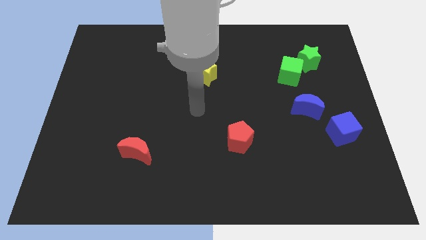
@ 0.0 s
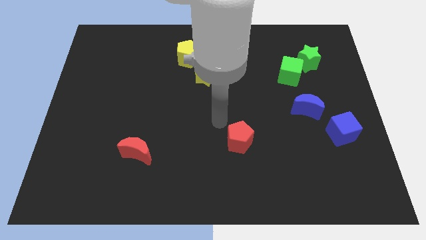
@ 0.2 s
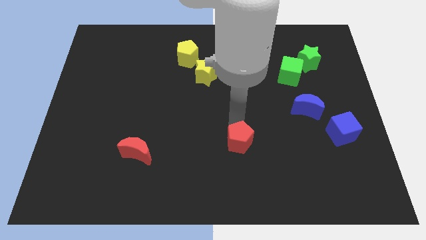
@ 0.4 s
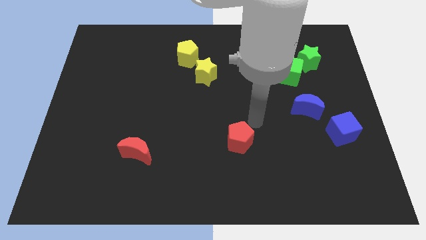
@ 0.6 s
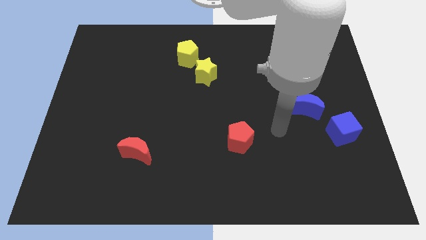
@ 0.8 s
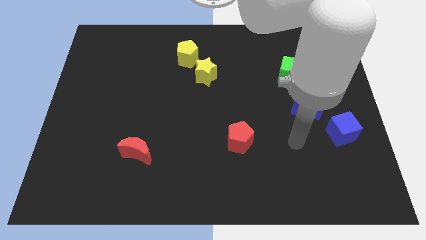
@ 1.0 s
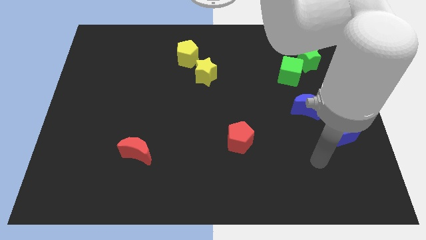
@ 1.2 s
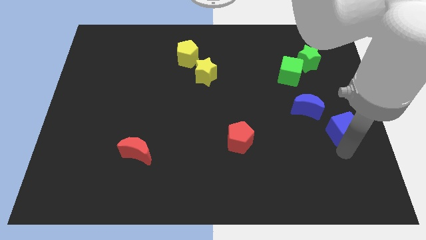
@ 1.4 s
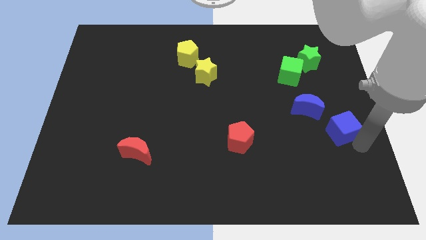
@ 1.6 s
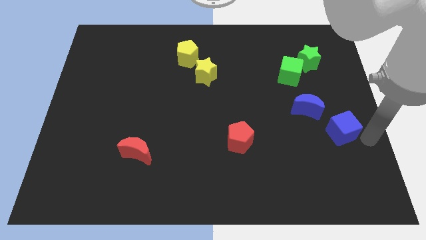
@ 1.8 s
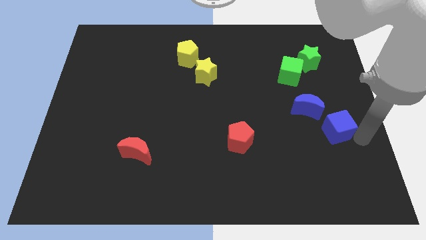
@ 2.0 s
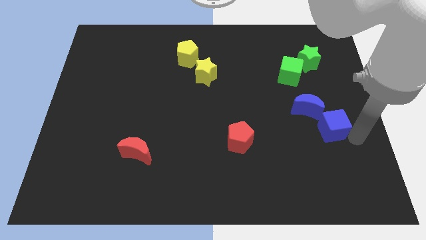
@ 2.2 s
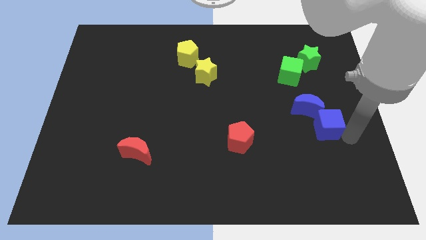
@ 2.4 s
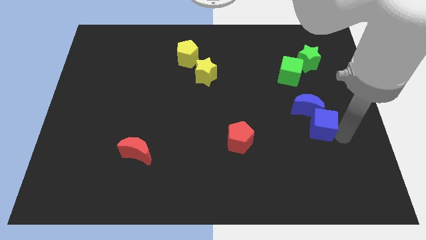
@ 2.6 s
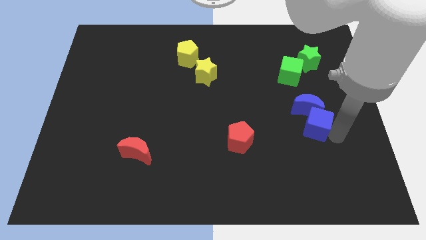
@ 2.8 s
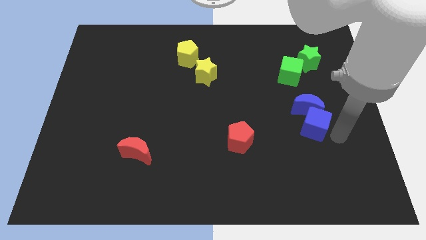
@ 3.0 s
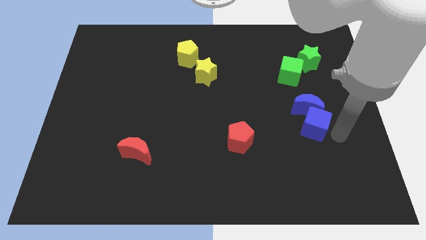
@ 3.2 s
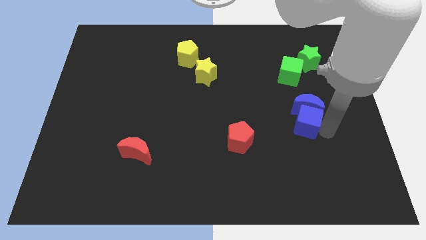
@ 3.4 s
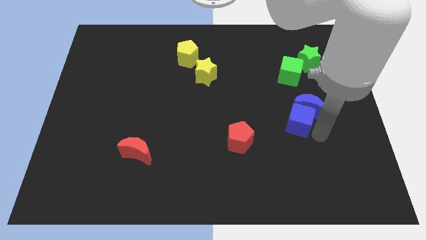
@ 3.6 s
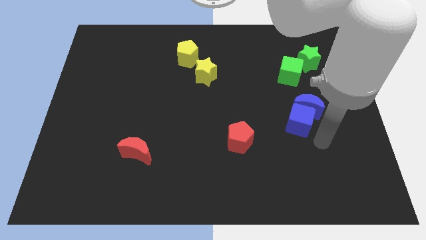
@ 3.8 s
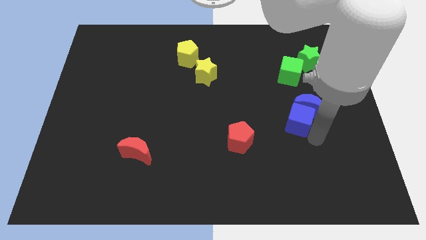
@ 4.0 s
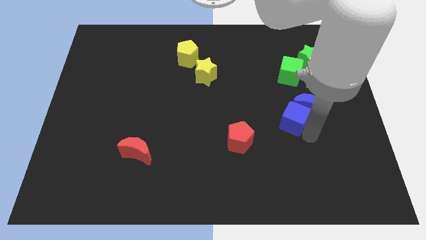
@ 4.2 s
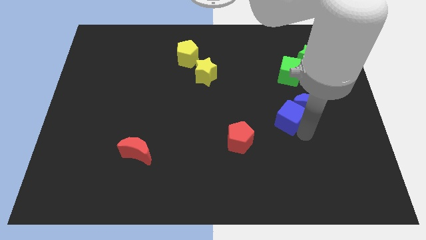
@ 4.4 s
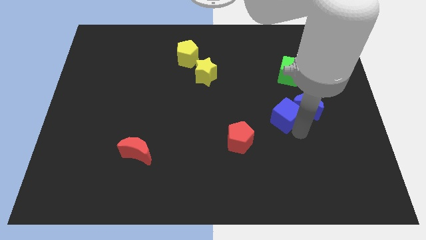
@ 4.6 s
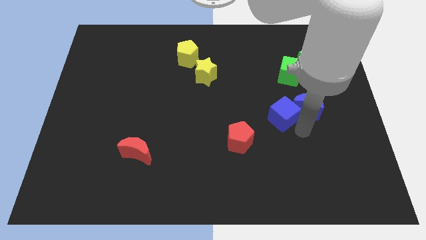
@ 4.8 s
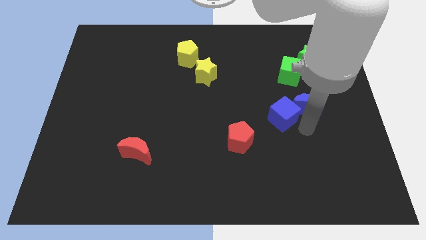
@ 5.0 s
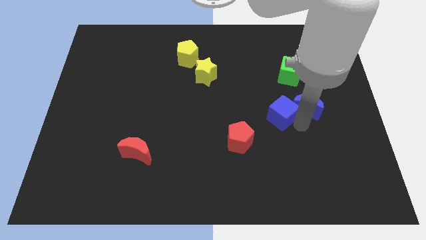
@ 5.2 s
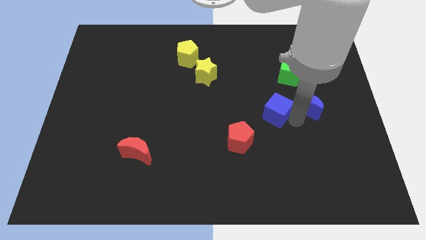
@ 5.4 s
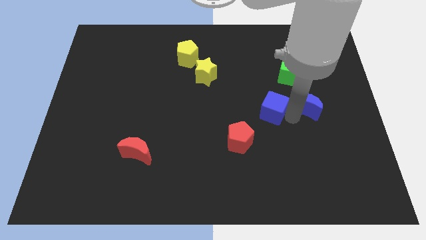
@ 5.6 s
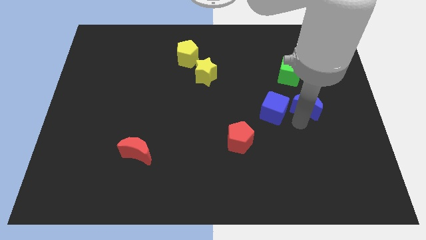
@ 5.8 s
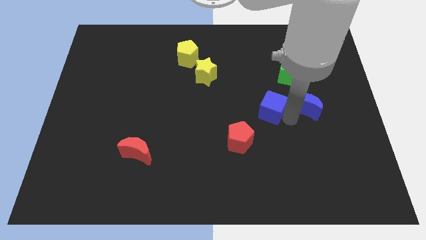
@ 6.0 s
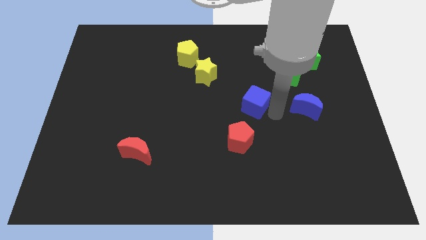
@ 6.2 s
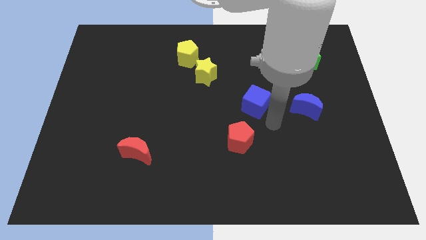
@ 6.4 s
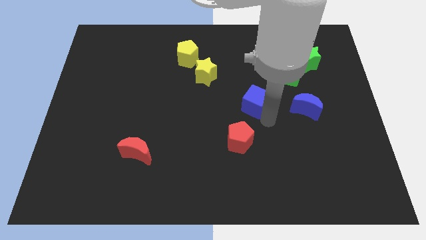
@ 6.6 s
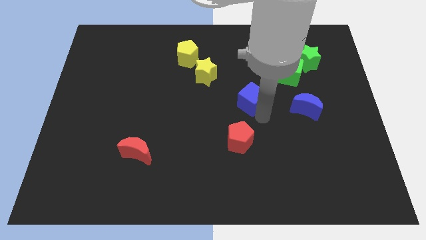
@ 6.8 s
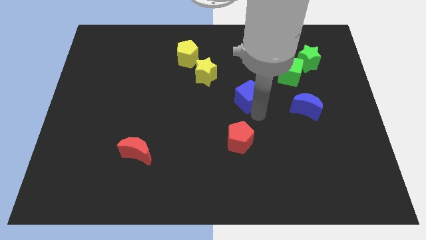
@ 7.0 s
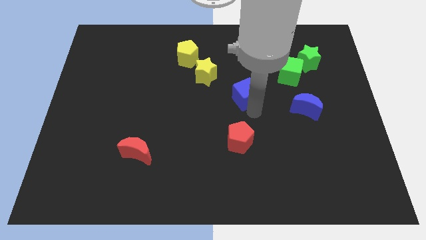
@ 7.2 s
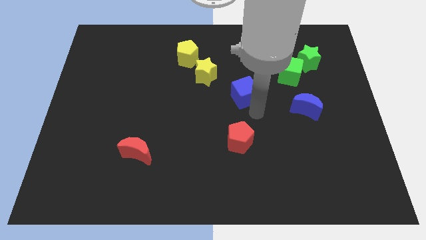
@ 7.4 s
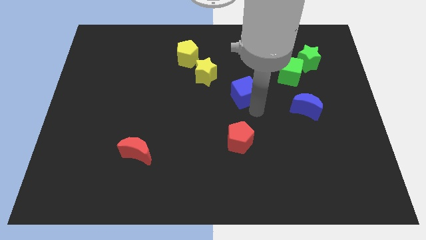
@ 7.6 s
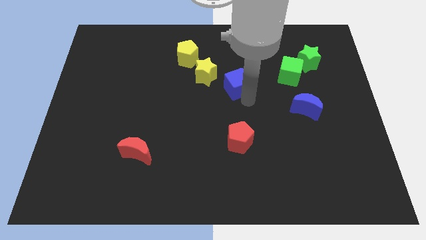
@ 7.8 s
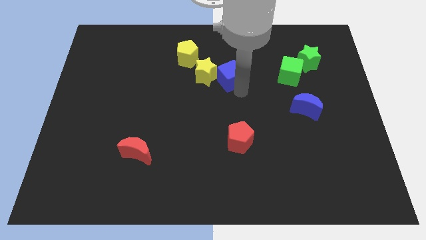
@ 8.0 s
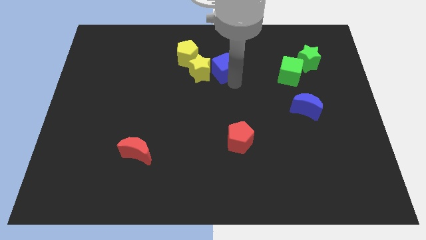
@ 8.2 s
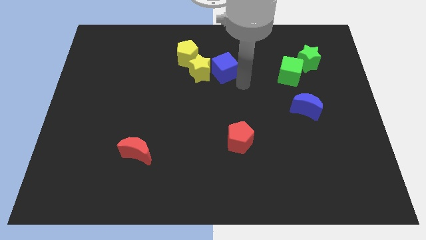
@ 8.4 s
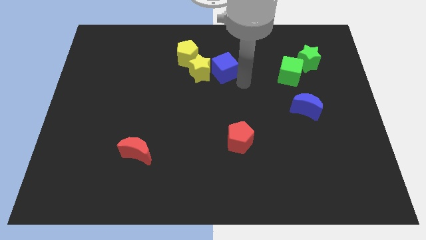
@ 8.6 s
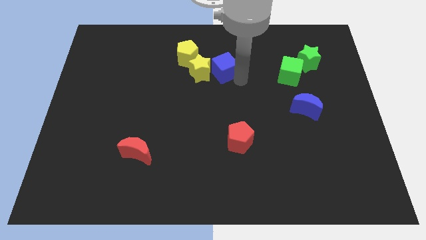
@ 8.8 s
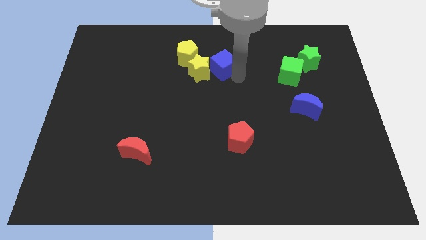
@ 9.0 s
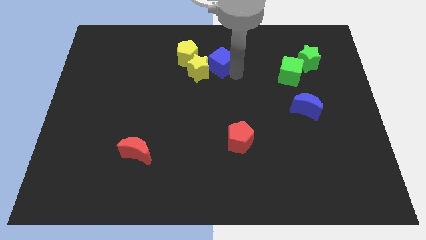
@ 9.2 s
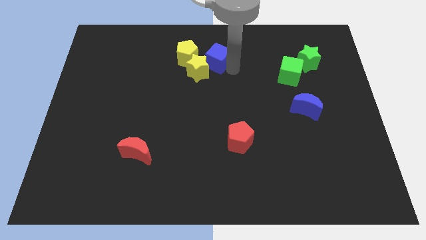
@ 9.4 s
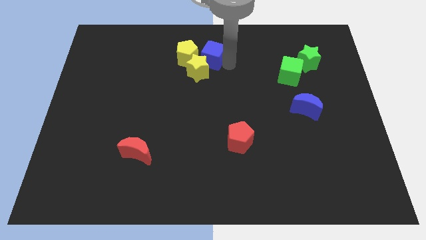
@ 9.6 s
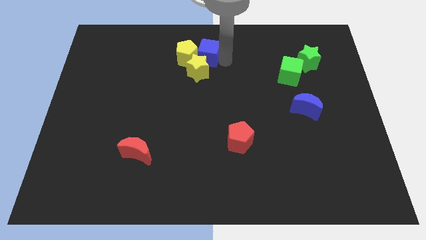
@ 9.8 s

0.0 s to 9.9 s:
push the blue cube to the yellow pentagon

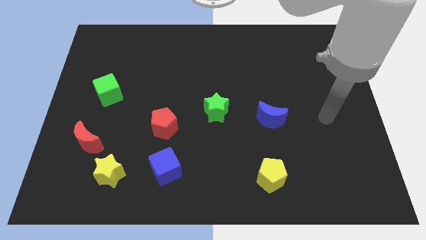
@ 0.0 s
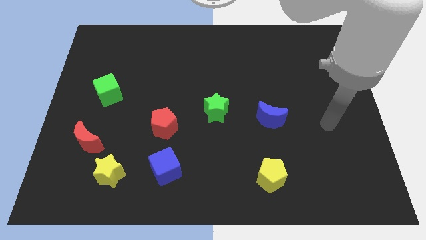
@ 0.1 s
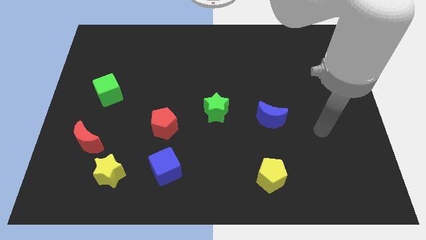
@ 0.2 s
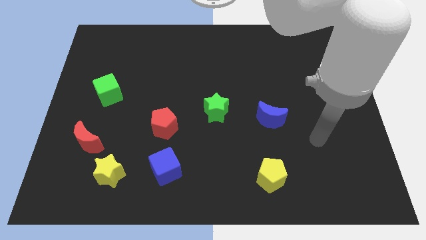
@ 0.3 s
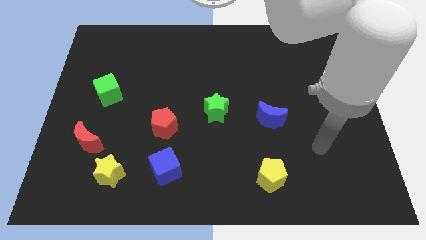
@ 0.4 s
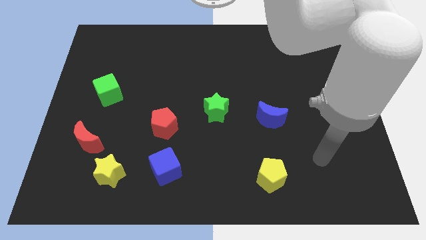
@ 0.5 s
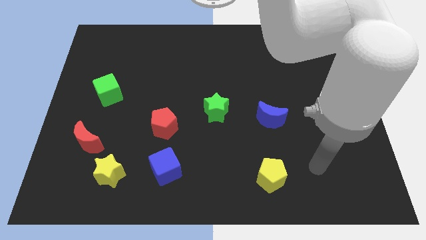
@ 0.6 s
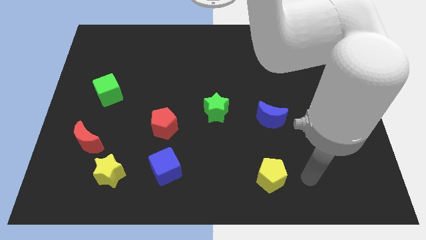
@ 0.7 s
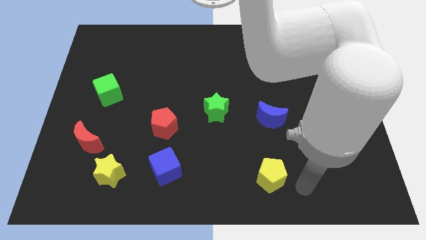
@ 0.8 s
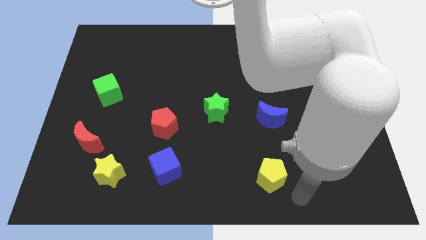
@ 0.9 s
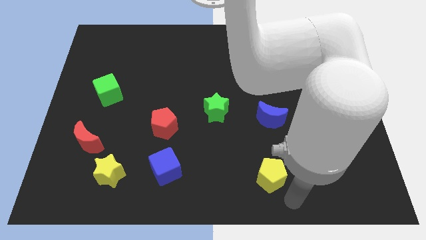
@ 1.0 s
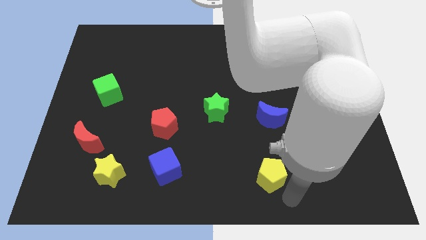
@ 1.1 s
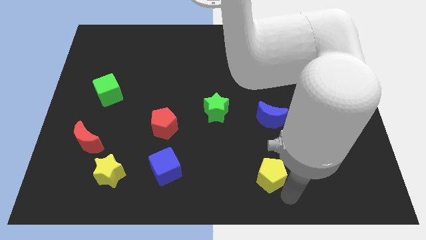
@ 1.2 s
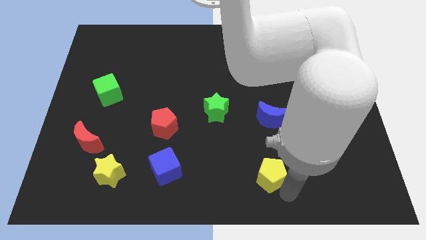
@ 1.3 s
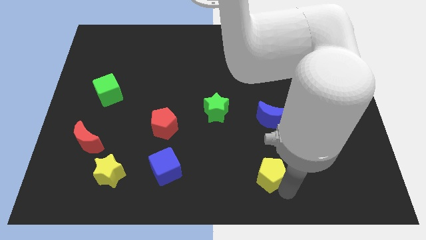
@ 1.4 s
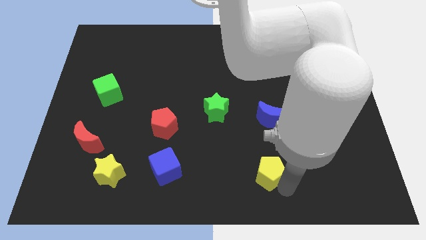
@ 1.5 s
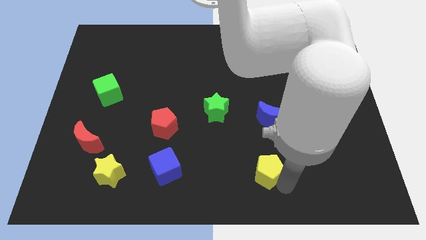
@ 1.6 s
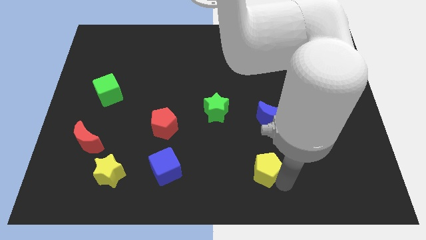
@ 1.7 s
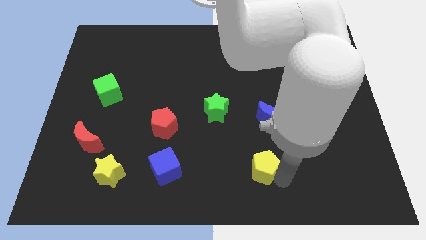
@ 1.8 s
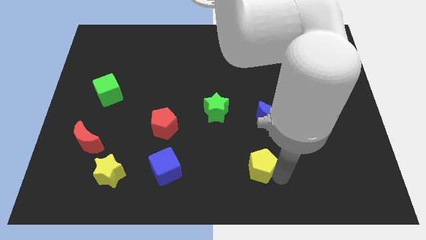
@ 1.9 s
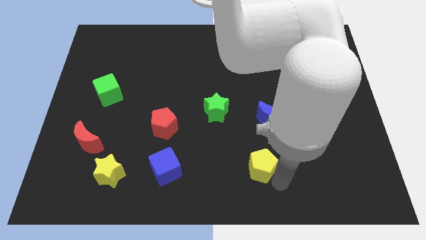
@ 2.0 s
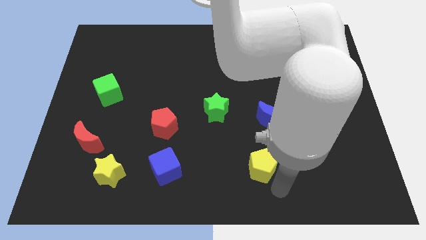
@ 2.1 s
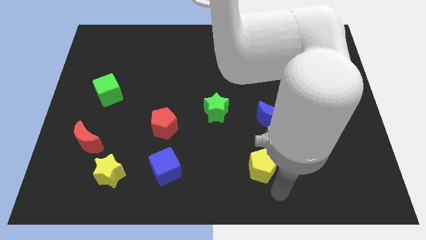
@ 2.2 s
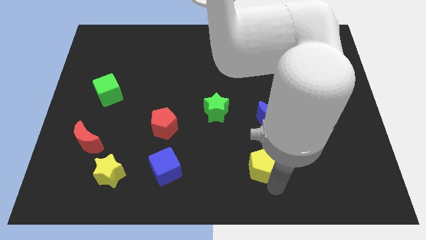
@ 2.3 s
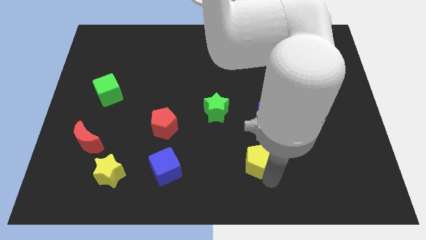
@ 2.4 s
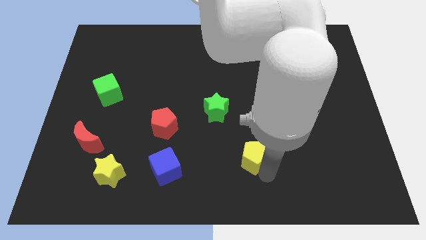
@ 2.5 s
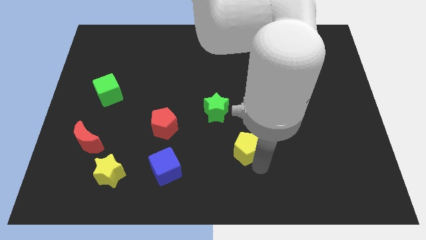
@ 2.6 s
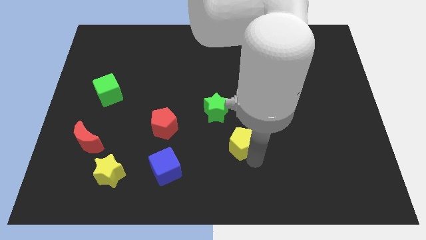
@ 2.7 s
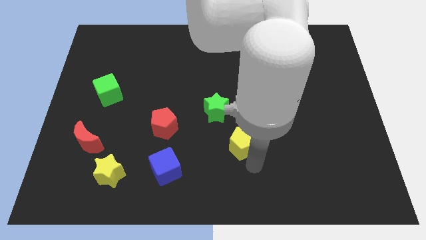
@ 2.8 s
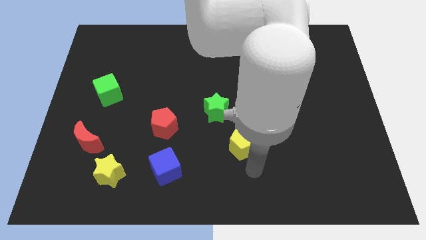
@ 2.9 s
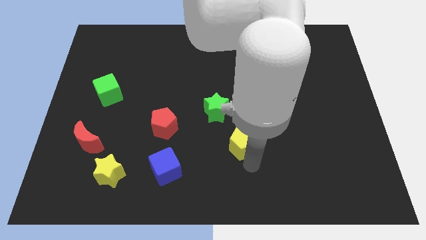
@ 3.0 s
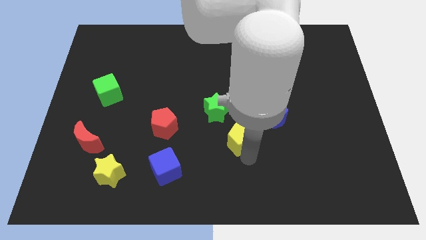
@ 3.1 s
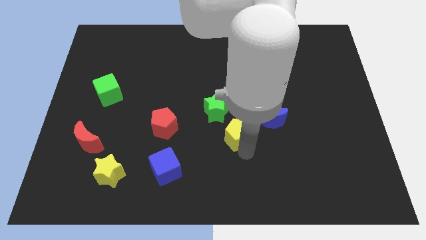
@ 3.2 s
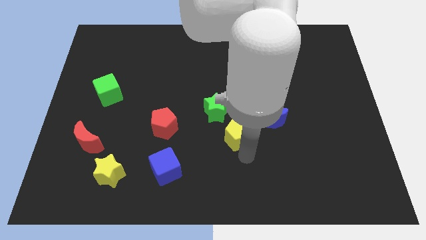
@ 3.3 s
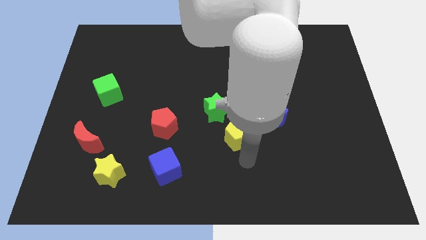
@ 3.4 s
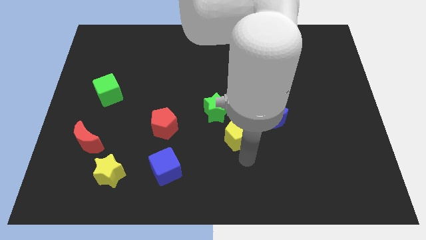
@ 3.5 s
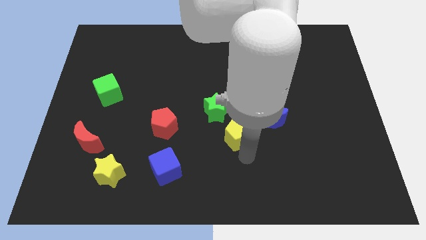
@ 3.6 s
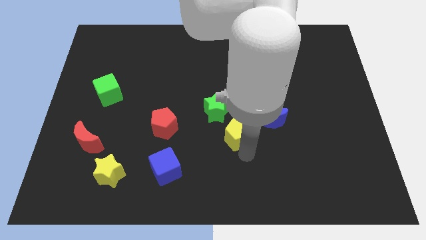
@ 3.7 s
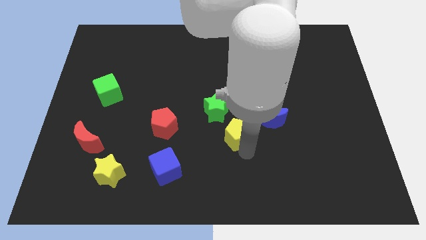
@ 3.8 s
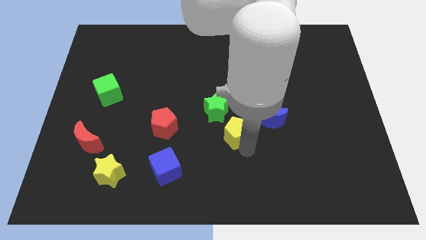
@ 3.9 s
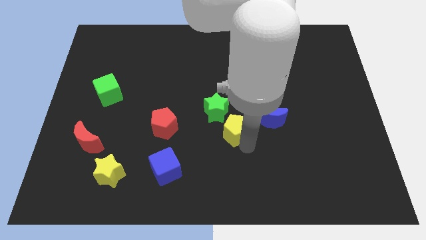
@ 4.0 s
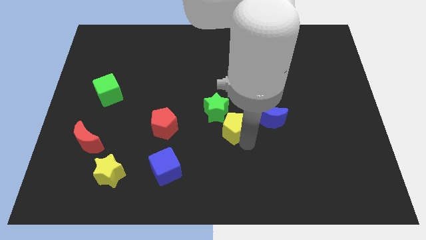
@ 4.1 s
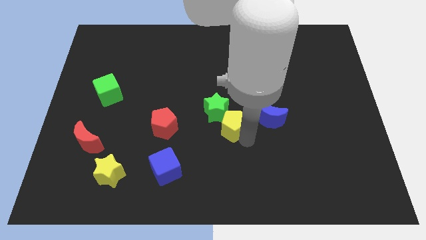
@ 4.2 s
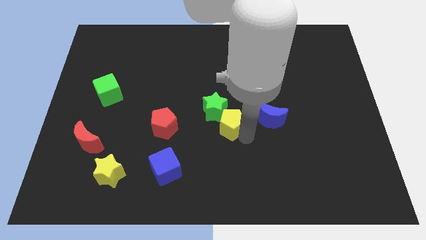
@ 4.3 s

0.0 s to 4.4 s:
put the yellow pentagon towards the green star
